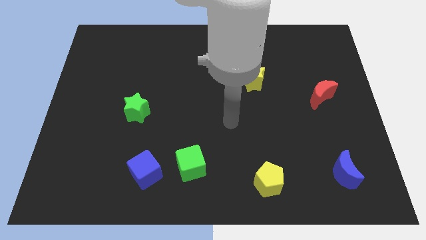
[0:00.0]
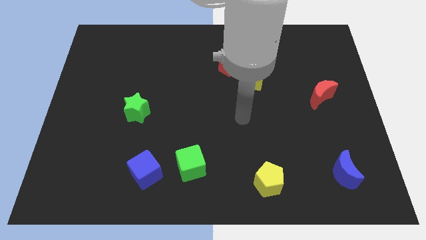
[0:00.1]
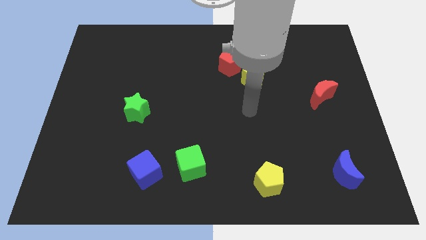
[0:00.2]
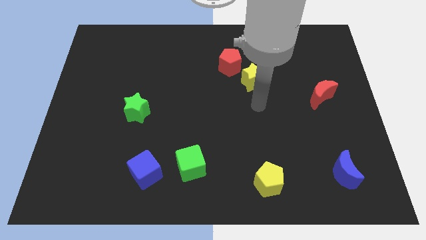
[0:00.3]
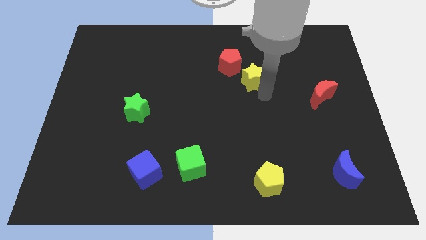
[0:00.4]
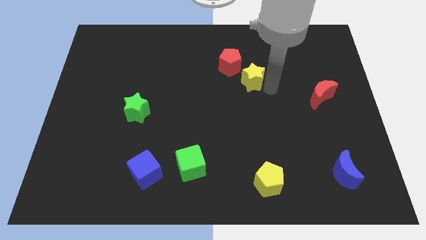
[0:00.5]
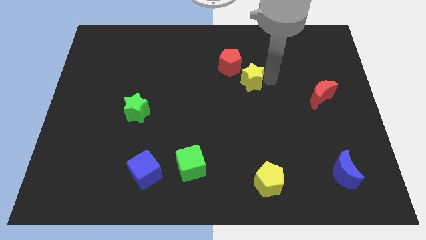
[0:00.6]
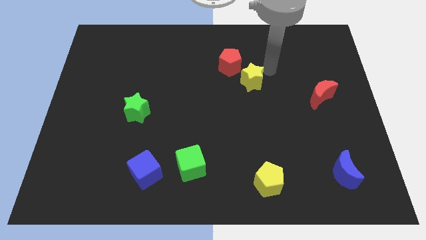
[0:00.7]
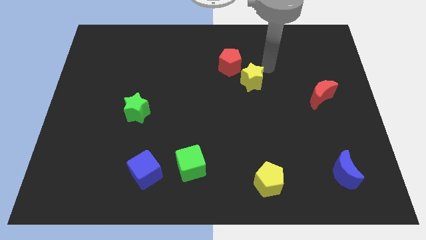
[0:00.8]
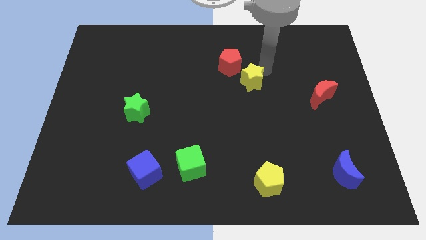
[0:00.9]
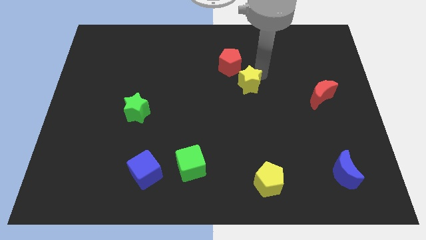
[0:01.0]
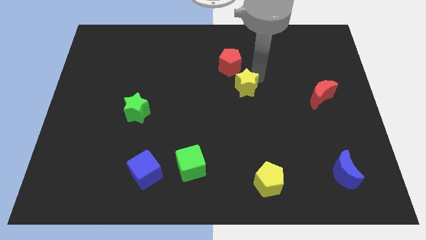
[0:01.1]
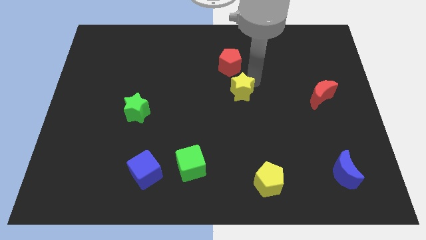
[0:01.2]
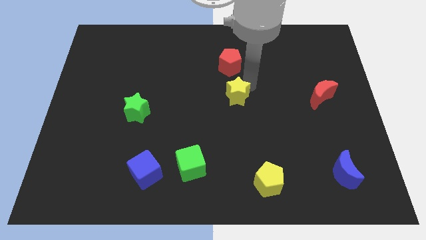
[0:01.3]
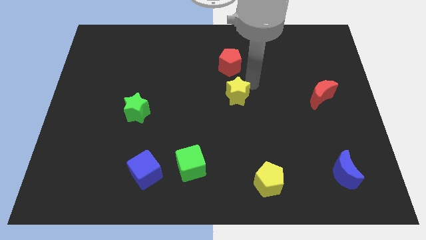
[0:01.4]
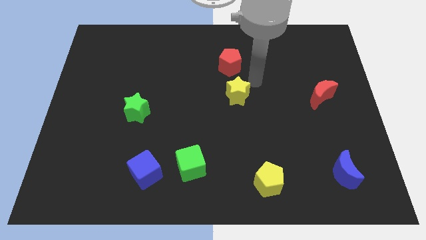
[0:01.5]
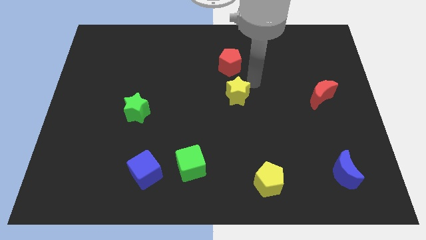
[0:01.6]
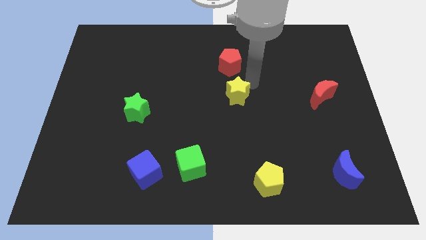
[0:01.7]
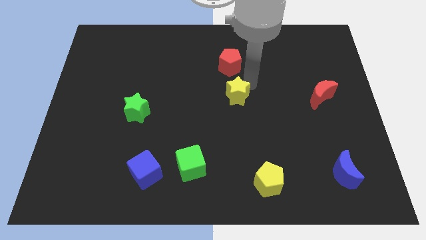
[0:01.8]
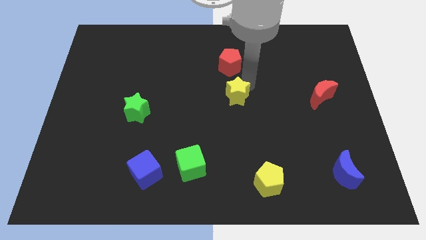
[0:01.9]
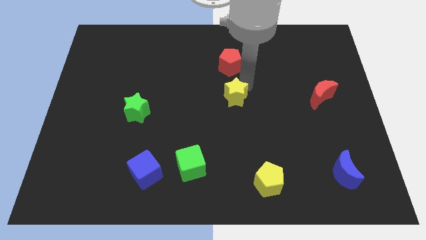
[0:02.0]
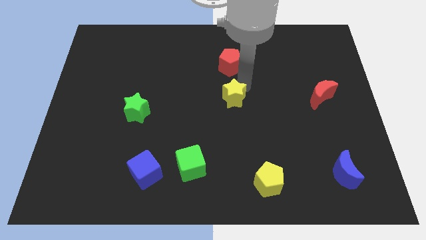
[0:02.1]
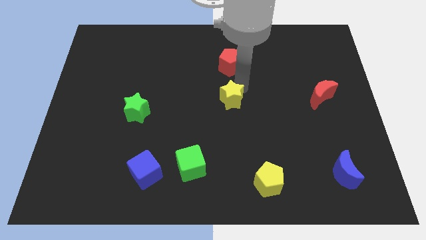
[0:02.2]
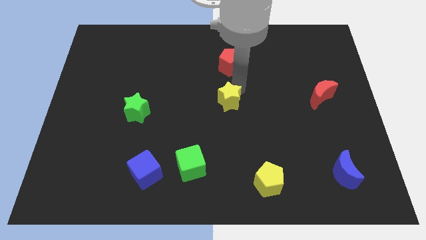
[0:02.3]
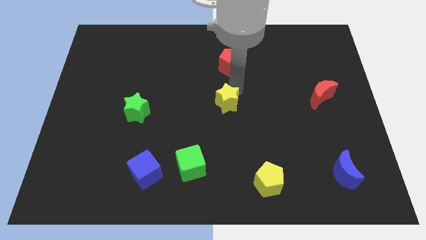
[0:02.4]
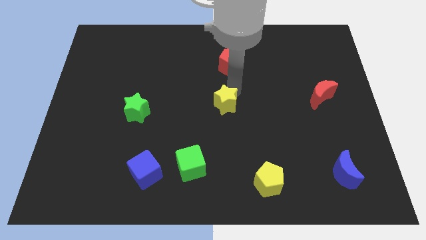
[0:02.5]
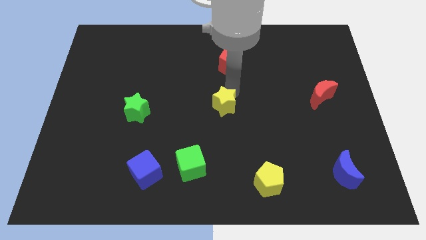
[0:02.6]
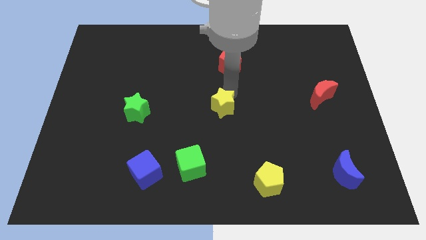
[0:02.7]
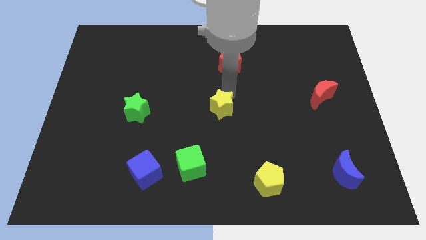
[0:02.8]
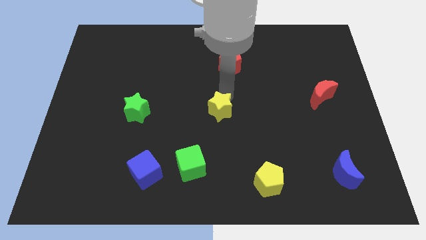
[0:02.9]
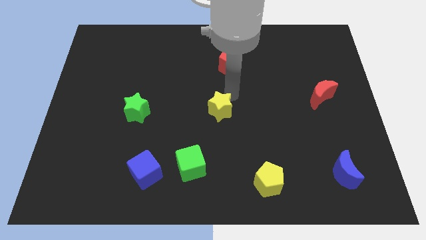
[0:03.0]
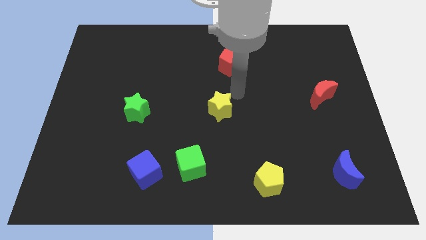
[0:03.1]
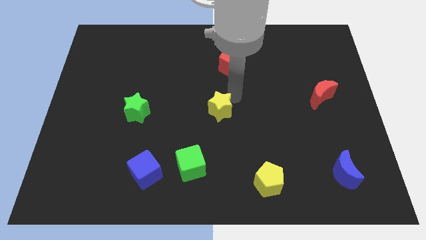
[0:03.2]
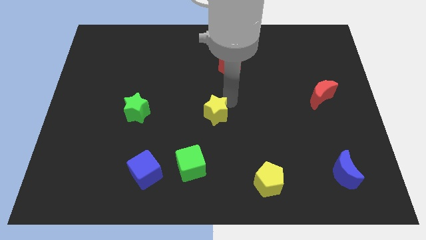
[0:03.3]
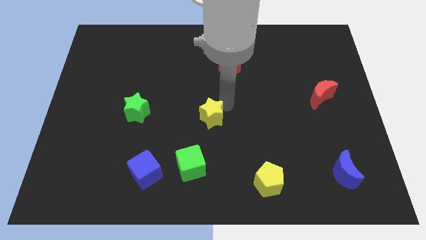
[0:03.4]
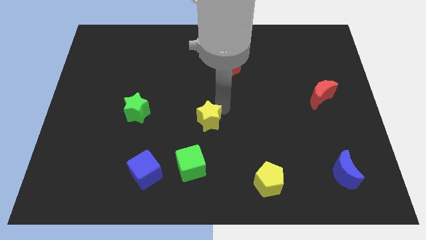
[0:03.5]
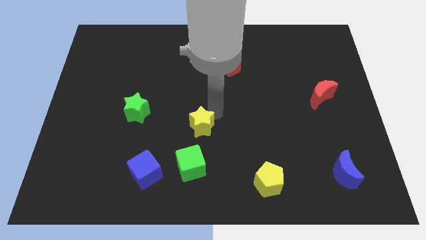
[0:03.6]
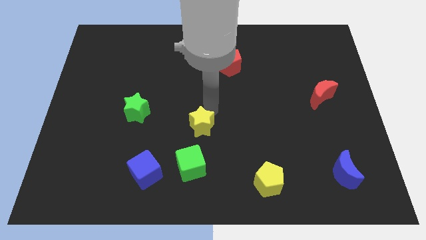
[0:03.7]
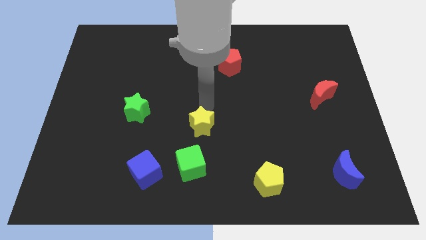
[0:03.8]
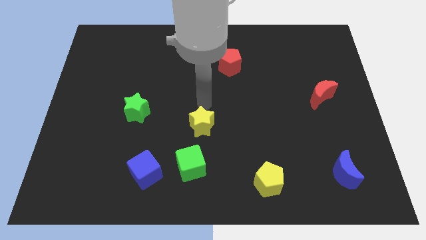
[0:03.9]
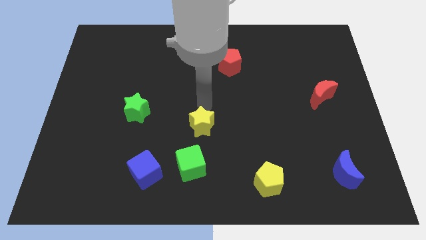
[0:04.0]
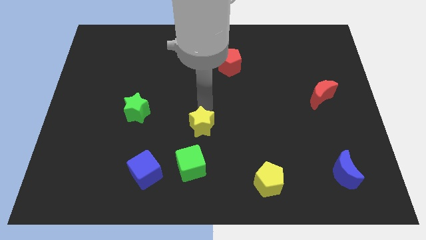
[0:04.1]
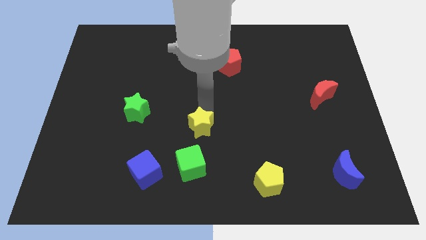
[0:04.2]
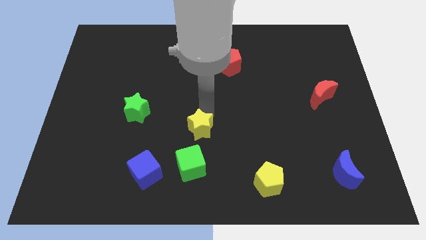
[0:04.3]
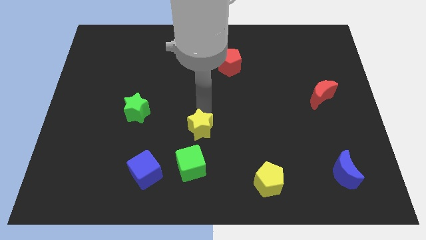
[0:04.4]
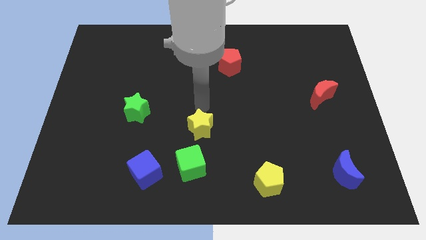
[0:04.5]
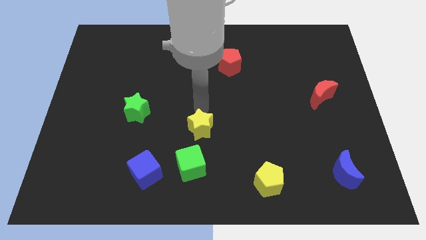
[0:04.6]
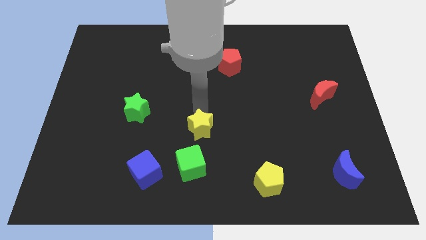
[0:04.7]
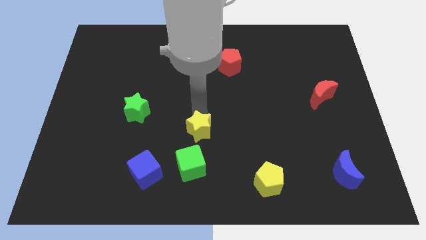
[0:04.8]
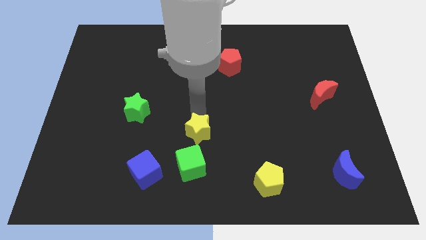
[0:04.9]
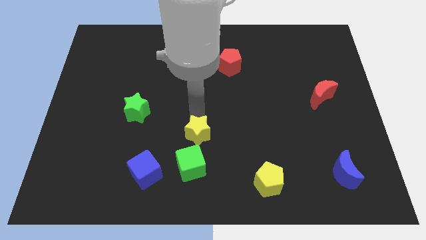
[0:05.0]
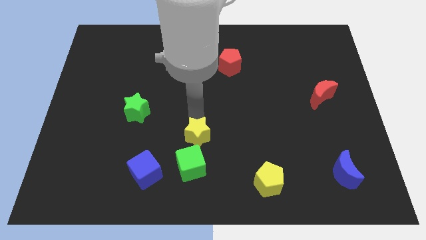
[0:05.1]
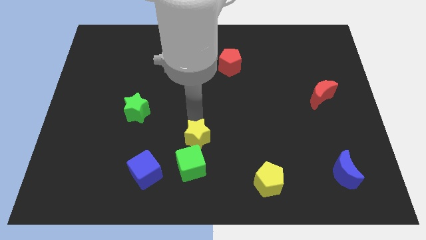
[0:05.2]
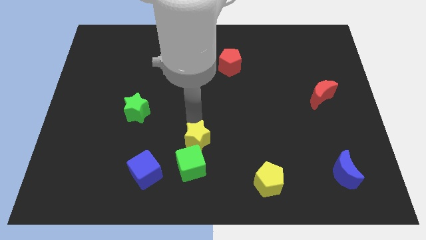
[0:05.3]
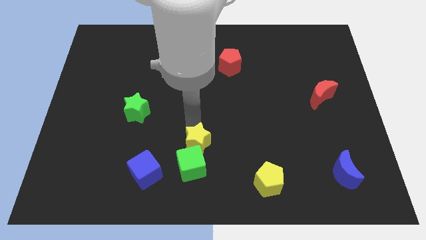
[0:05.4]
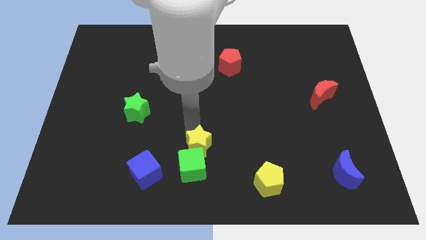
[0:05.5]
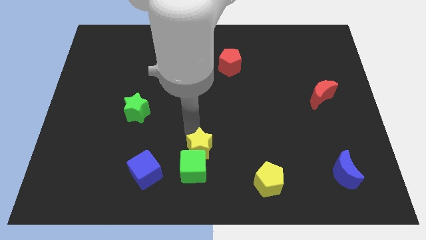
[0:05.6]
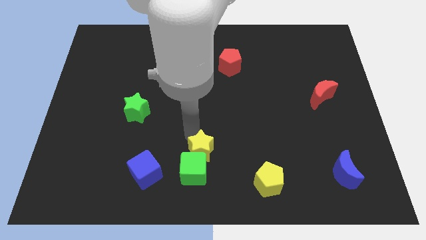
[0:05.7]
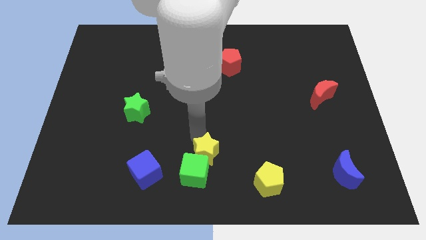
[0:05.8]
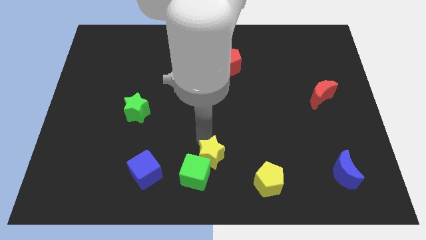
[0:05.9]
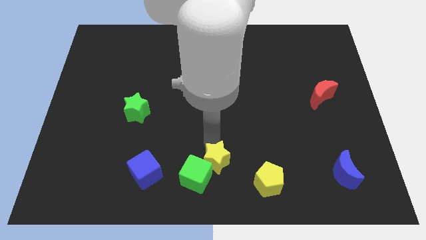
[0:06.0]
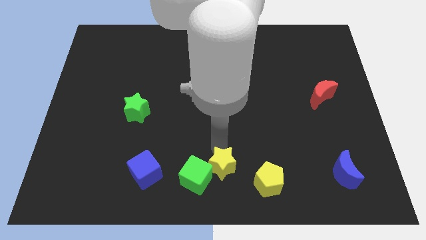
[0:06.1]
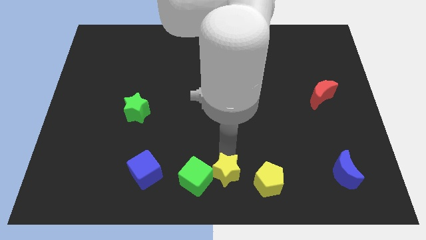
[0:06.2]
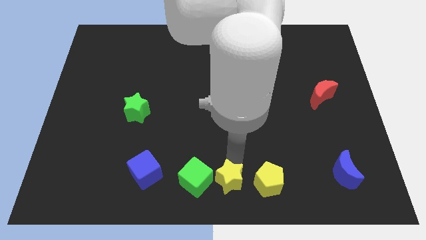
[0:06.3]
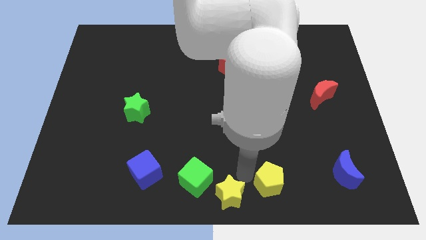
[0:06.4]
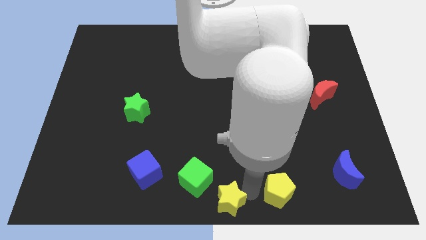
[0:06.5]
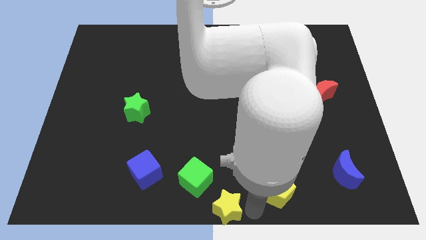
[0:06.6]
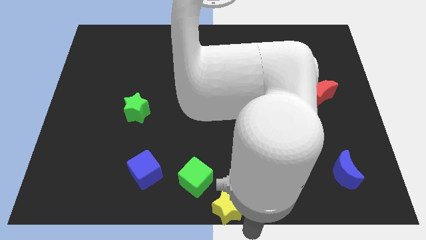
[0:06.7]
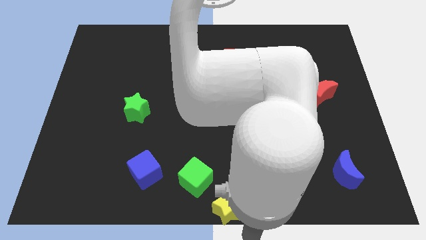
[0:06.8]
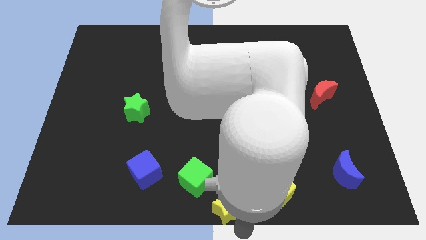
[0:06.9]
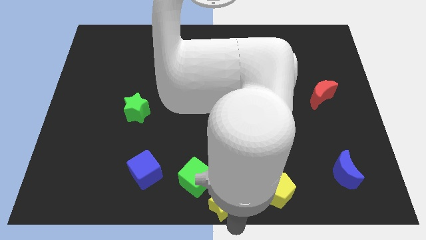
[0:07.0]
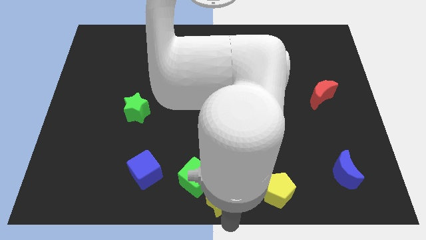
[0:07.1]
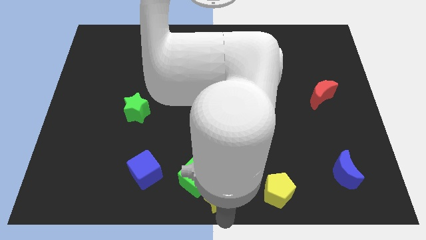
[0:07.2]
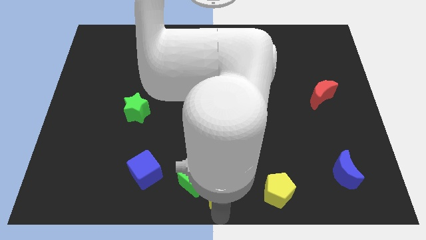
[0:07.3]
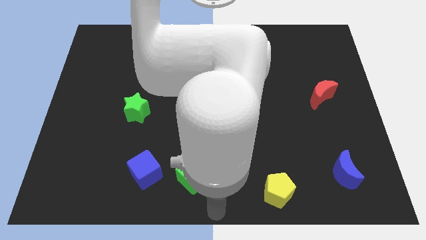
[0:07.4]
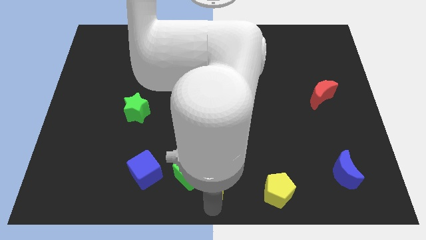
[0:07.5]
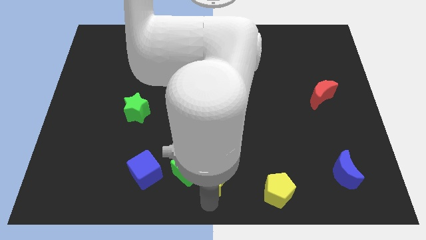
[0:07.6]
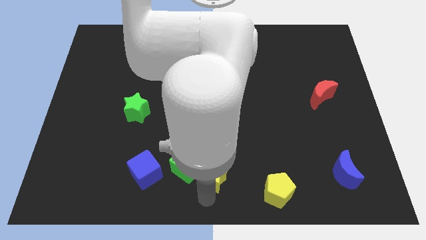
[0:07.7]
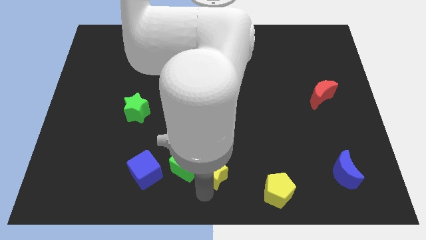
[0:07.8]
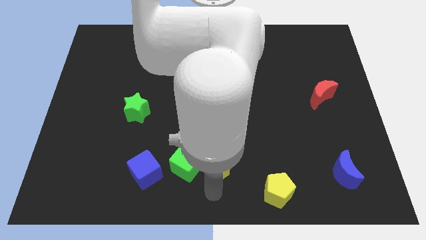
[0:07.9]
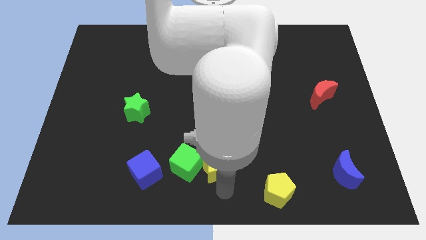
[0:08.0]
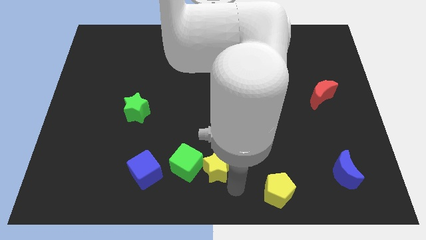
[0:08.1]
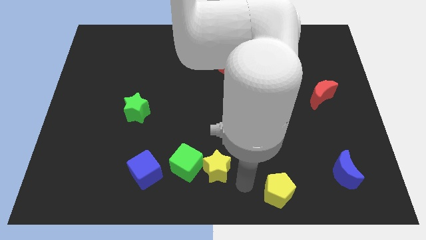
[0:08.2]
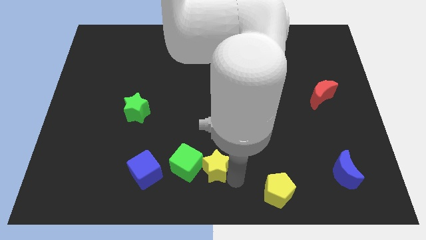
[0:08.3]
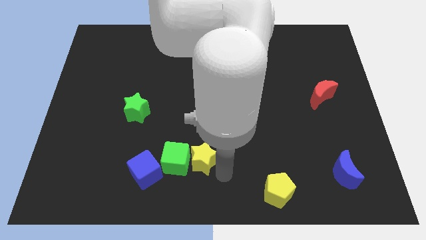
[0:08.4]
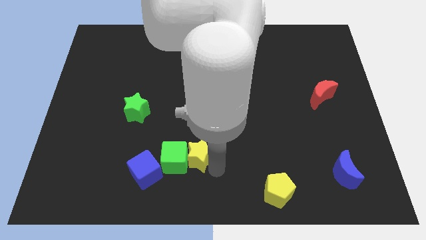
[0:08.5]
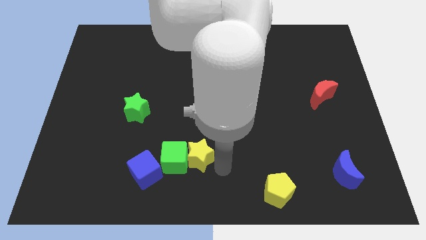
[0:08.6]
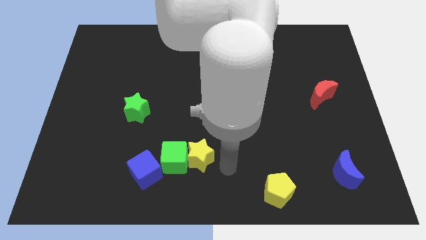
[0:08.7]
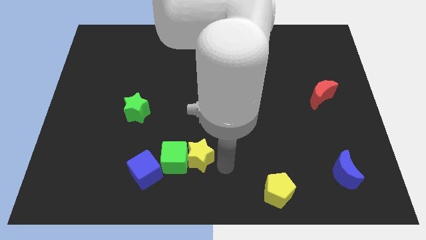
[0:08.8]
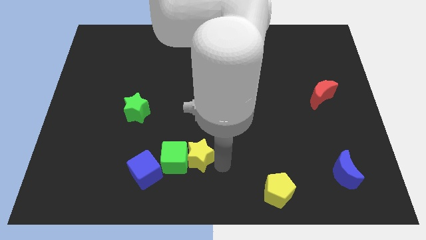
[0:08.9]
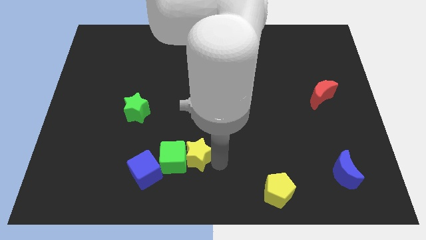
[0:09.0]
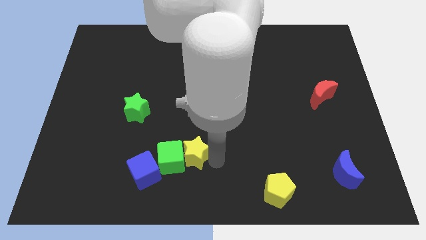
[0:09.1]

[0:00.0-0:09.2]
put the yellow star to the top right of the blue cube
